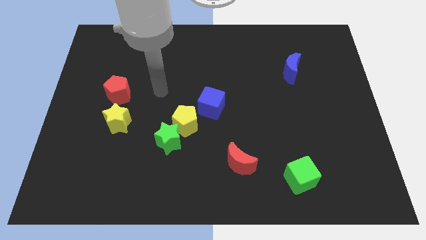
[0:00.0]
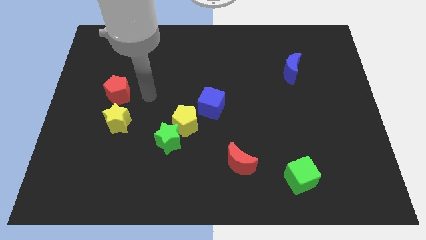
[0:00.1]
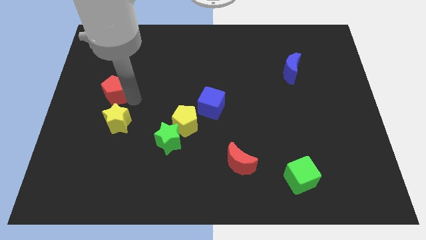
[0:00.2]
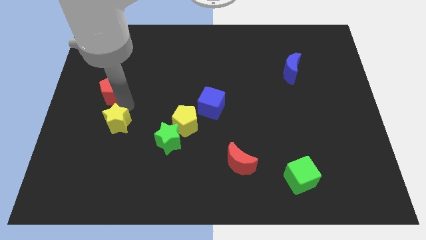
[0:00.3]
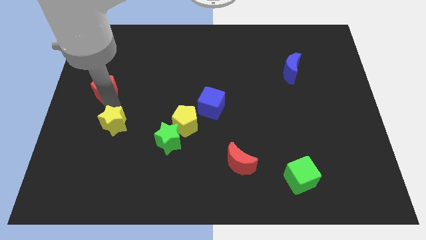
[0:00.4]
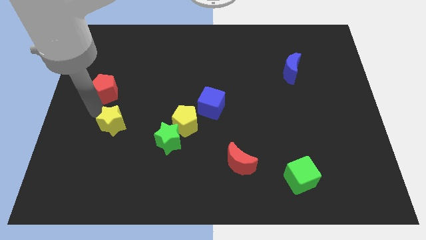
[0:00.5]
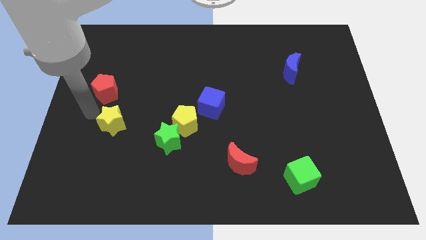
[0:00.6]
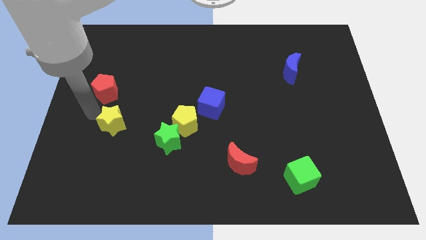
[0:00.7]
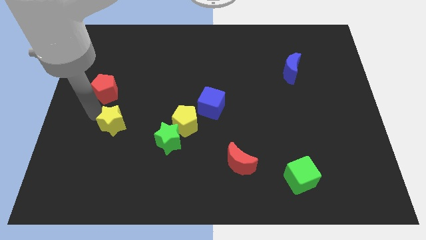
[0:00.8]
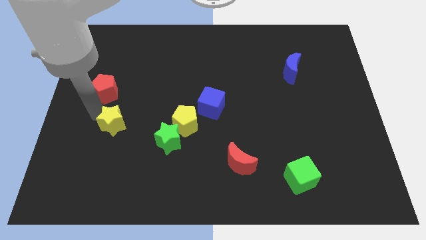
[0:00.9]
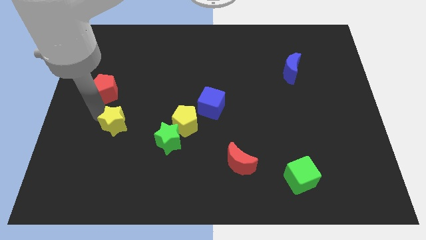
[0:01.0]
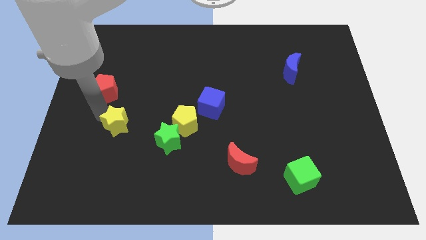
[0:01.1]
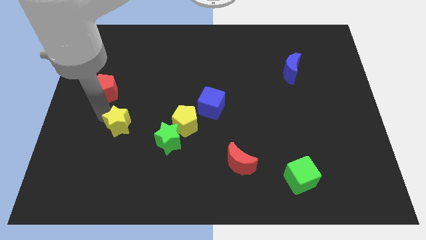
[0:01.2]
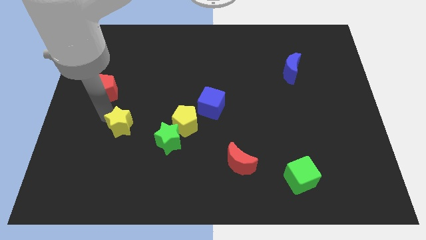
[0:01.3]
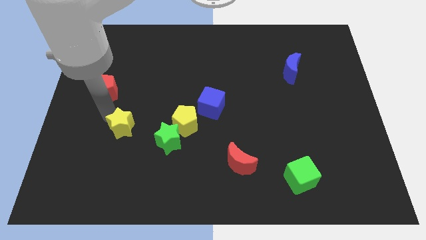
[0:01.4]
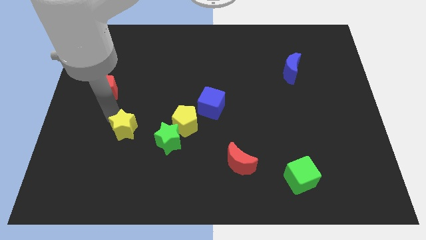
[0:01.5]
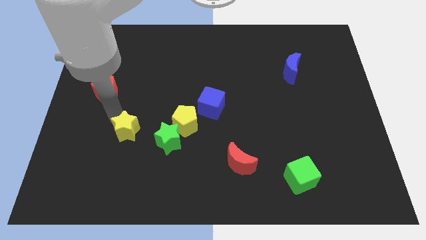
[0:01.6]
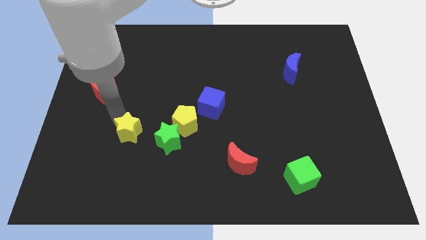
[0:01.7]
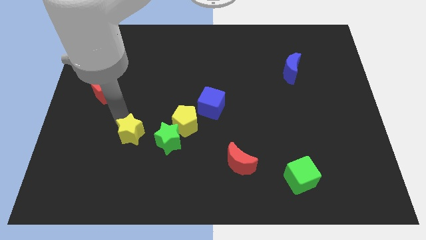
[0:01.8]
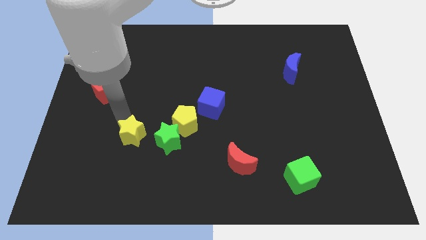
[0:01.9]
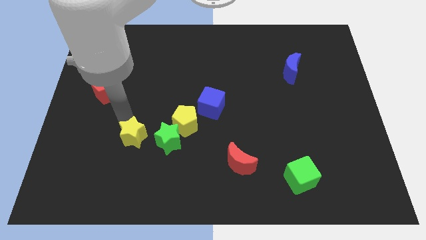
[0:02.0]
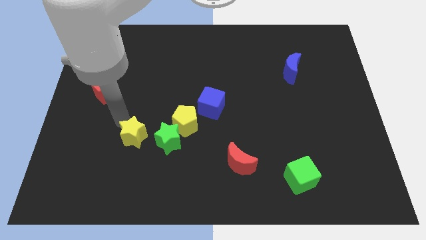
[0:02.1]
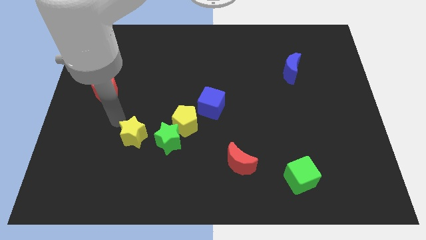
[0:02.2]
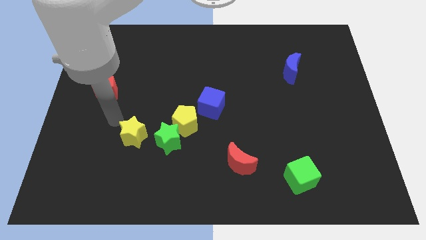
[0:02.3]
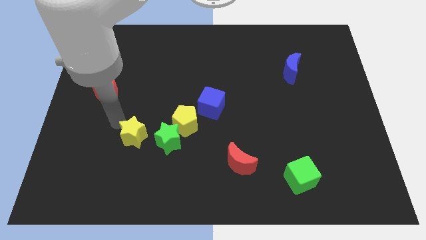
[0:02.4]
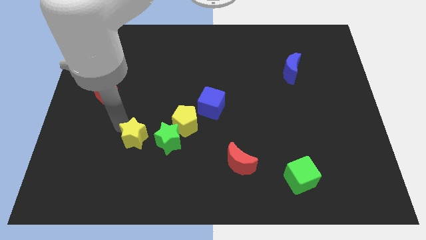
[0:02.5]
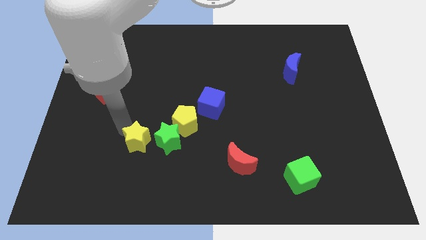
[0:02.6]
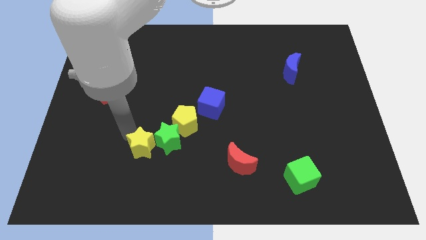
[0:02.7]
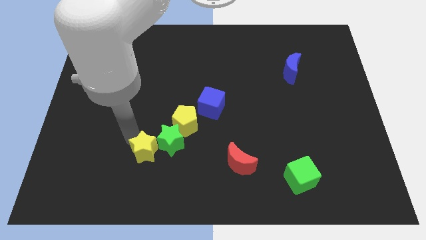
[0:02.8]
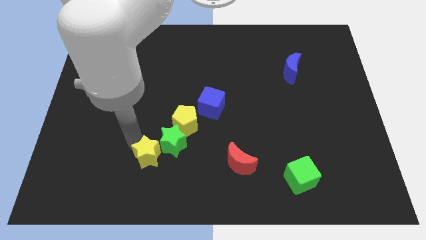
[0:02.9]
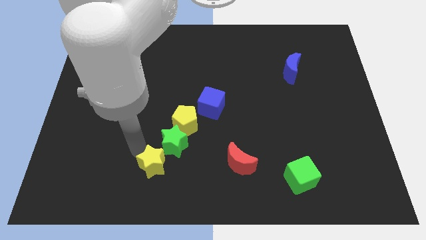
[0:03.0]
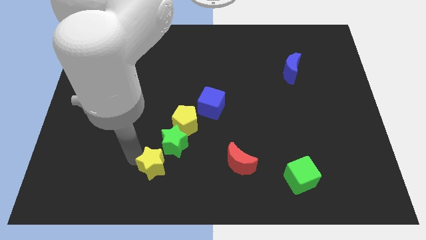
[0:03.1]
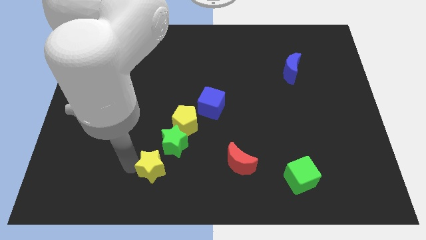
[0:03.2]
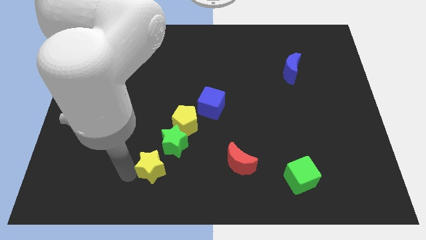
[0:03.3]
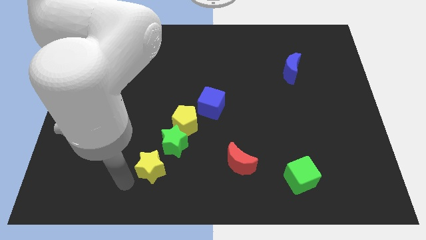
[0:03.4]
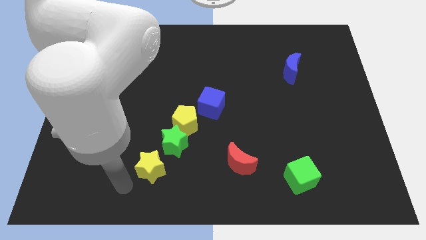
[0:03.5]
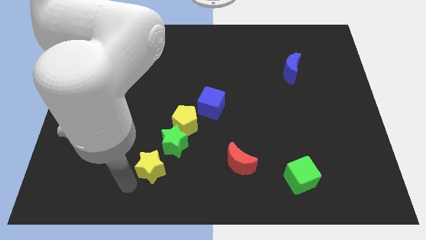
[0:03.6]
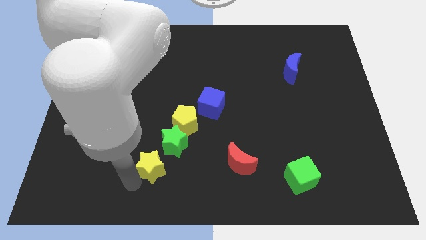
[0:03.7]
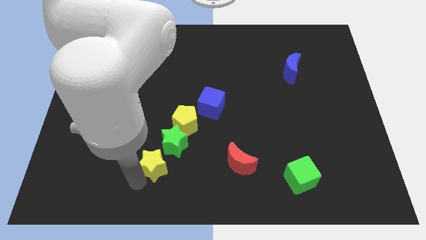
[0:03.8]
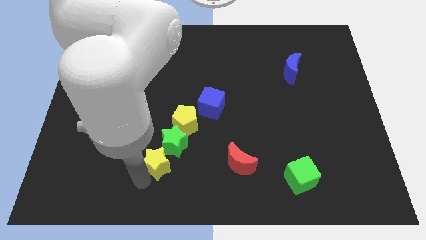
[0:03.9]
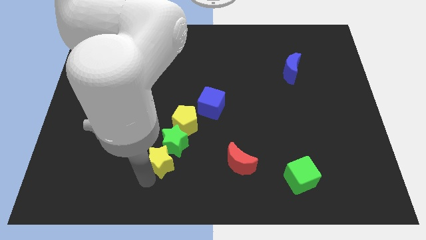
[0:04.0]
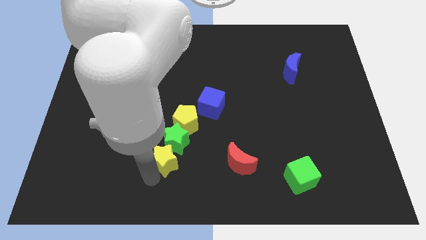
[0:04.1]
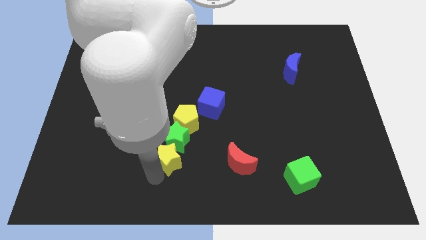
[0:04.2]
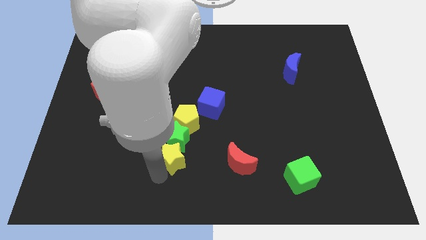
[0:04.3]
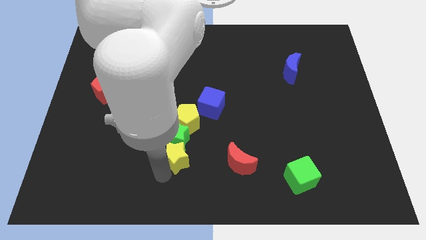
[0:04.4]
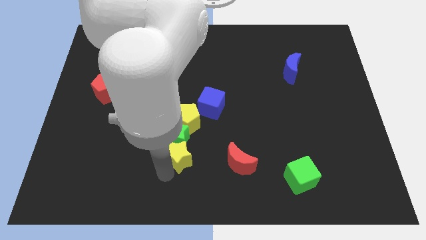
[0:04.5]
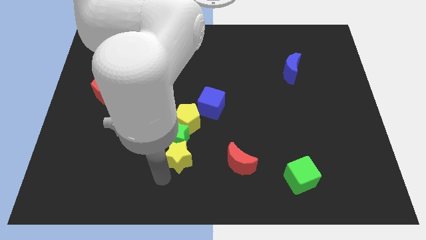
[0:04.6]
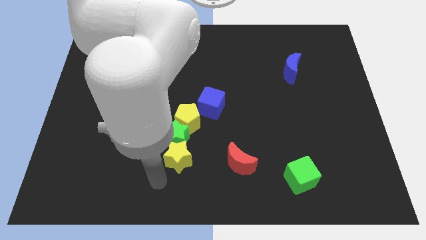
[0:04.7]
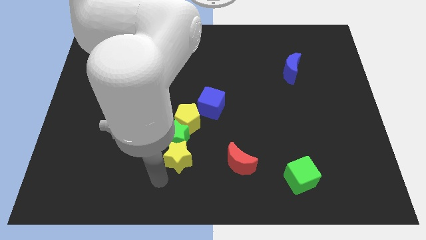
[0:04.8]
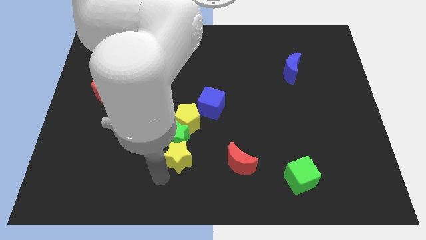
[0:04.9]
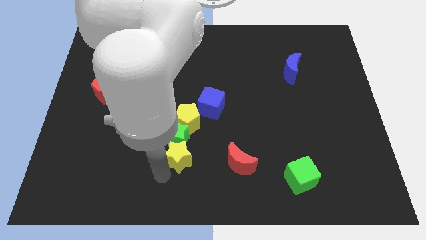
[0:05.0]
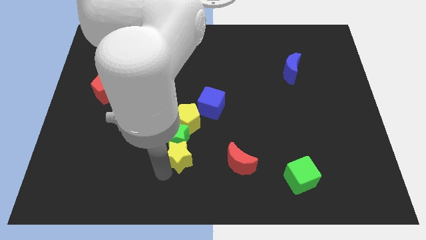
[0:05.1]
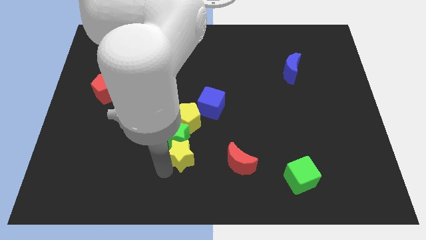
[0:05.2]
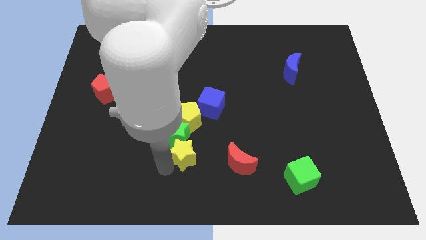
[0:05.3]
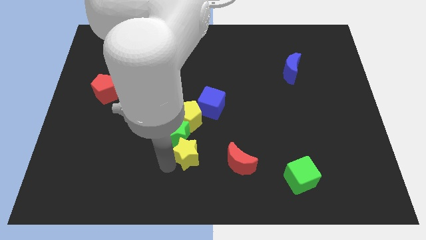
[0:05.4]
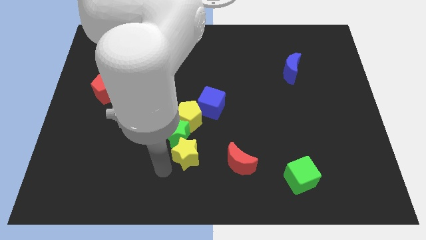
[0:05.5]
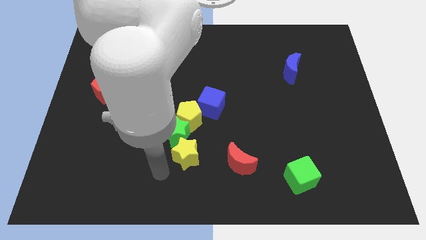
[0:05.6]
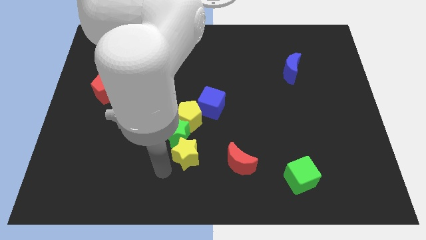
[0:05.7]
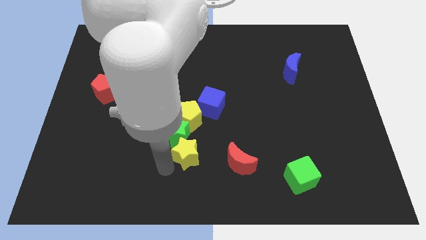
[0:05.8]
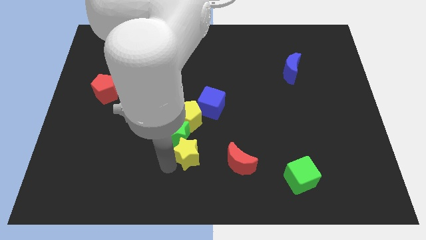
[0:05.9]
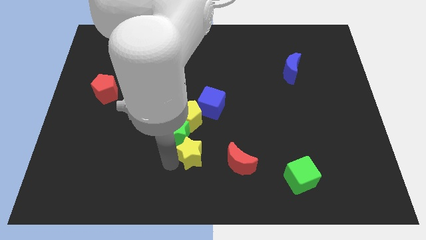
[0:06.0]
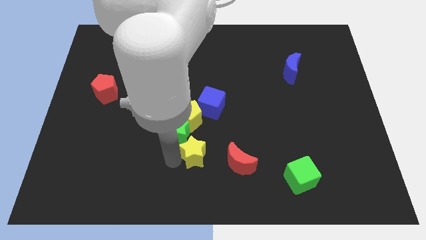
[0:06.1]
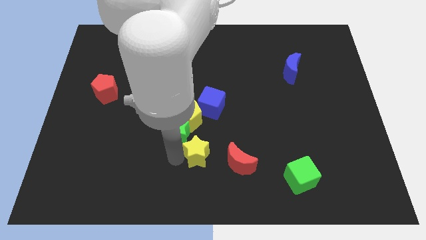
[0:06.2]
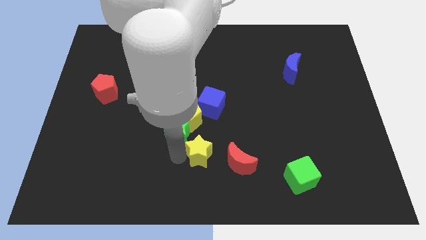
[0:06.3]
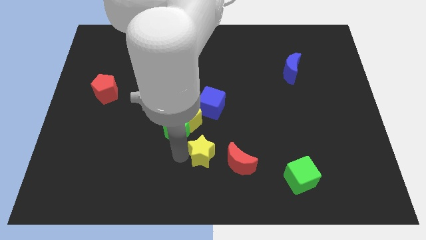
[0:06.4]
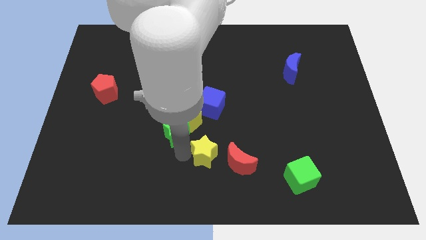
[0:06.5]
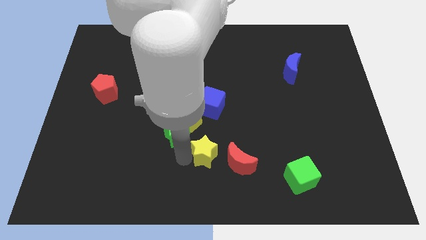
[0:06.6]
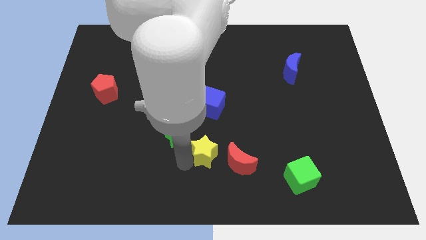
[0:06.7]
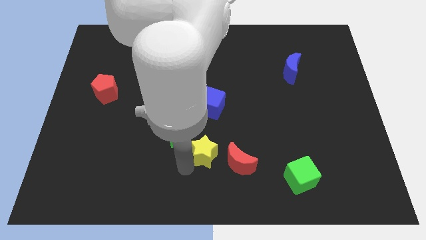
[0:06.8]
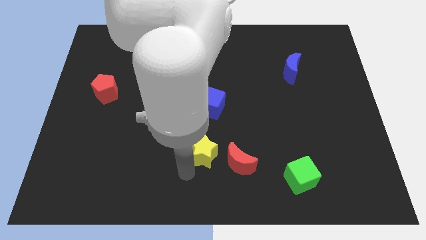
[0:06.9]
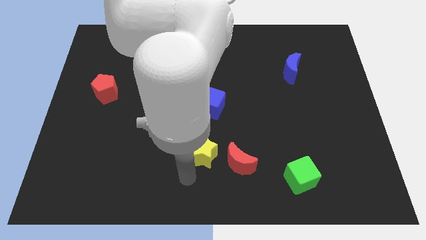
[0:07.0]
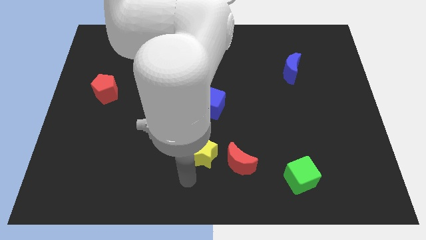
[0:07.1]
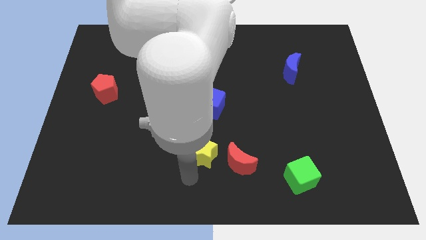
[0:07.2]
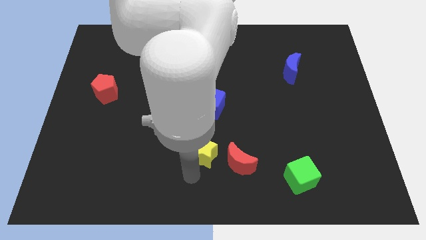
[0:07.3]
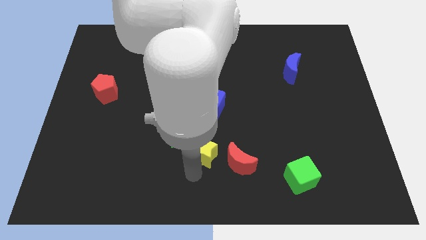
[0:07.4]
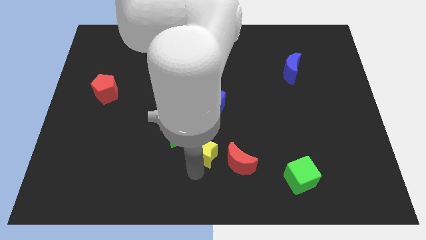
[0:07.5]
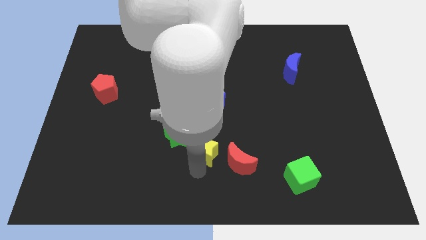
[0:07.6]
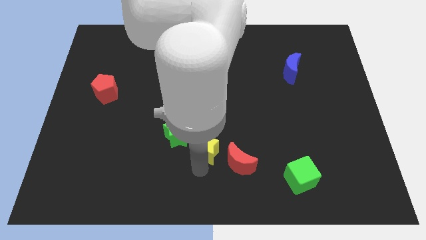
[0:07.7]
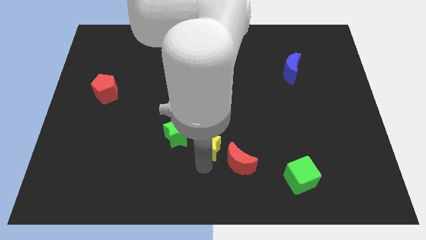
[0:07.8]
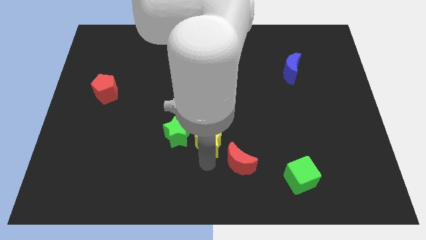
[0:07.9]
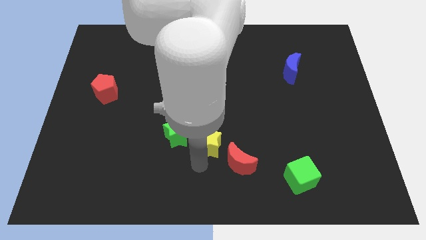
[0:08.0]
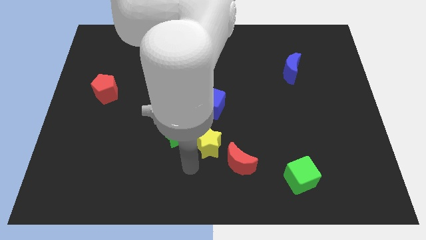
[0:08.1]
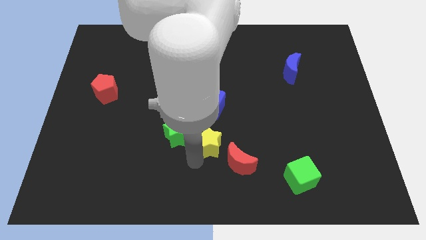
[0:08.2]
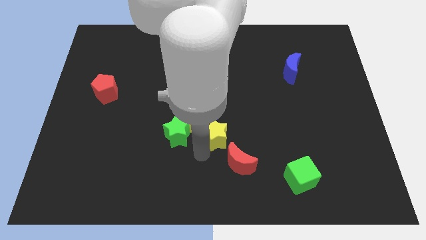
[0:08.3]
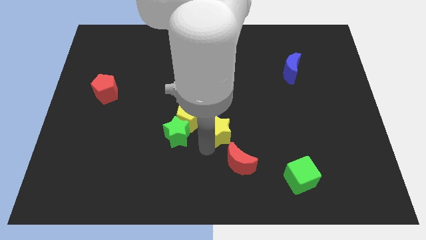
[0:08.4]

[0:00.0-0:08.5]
put the yellow star just right of the yellow pentagon
